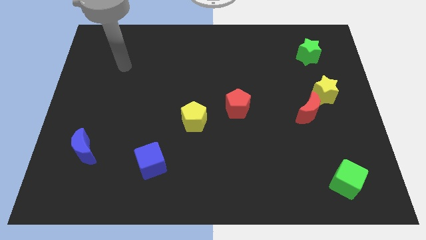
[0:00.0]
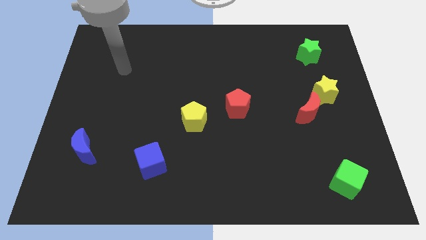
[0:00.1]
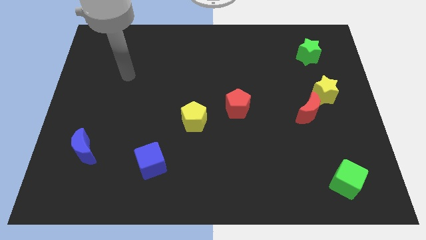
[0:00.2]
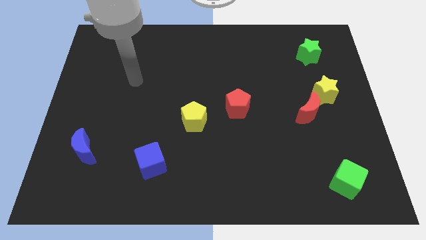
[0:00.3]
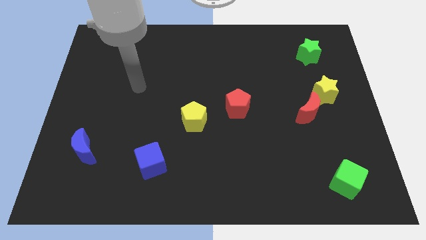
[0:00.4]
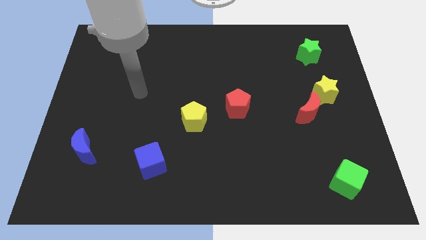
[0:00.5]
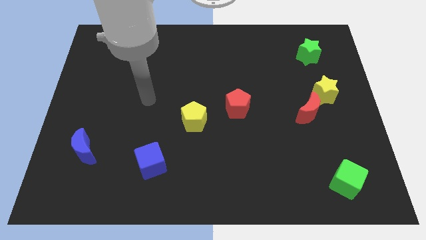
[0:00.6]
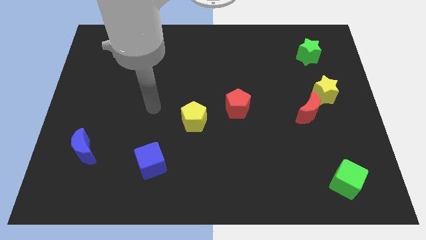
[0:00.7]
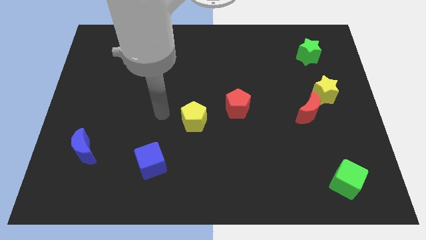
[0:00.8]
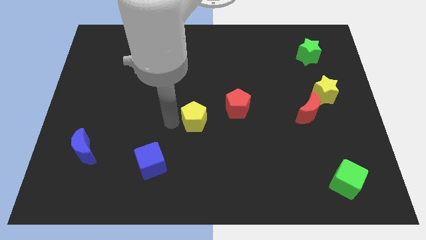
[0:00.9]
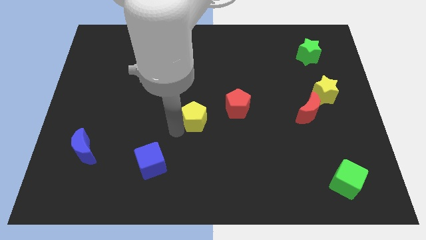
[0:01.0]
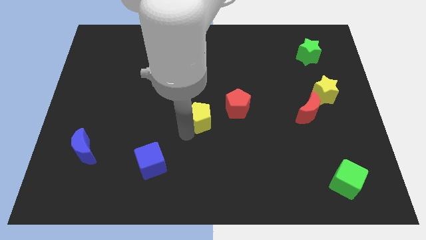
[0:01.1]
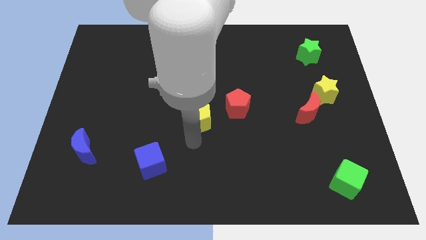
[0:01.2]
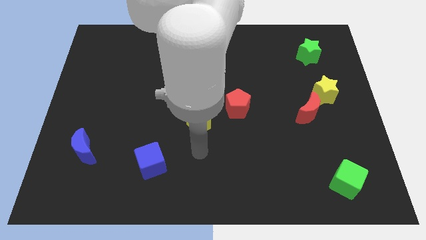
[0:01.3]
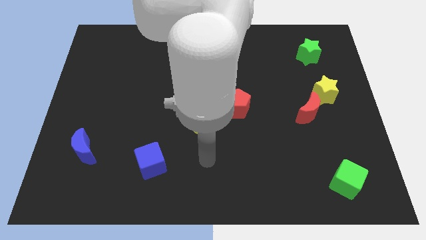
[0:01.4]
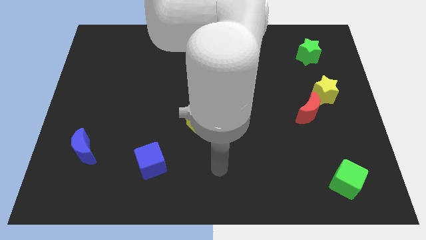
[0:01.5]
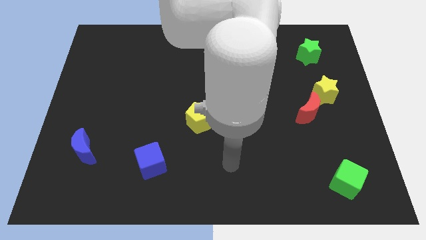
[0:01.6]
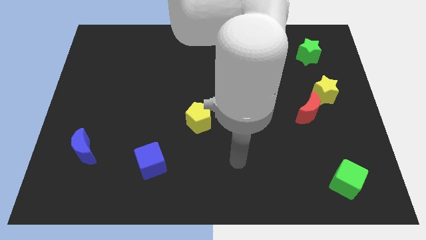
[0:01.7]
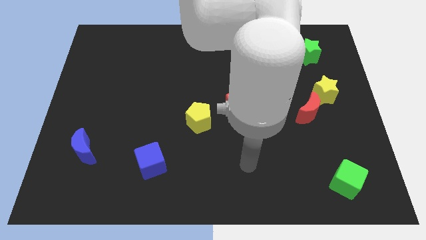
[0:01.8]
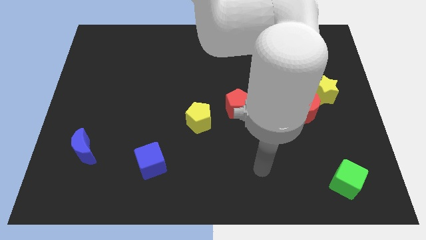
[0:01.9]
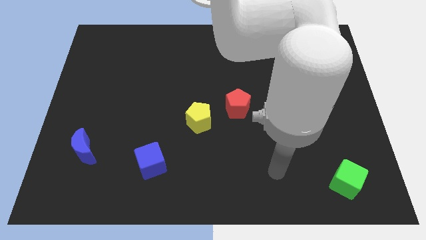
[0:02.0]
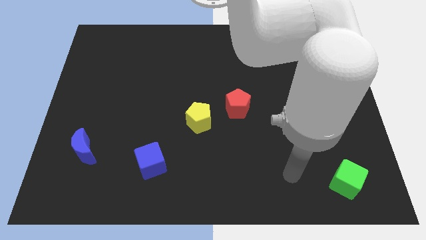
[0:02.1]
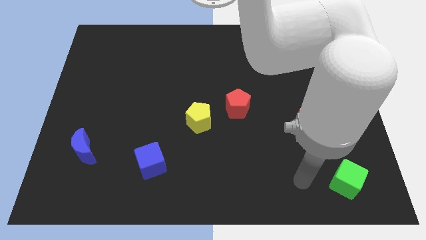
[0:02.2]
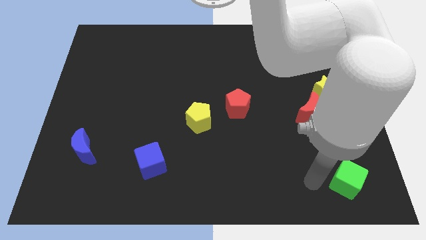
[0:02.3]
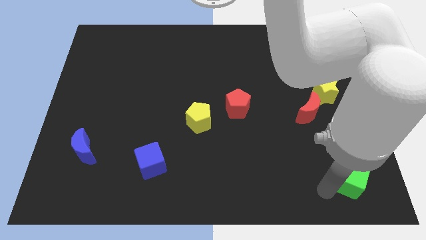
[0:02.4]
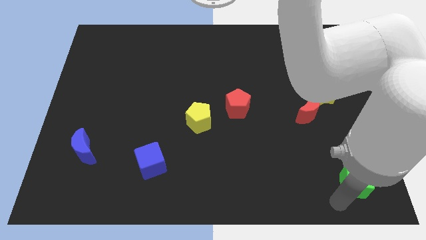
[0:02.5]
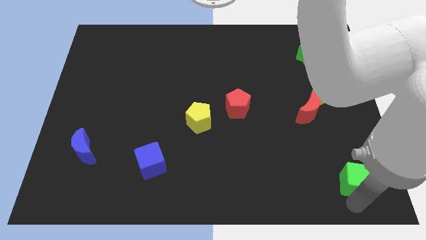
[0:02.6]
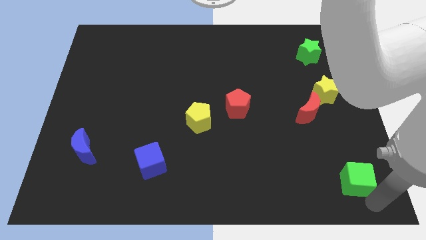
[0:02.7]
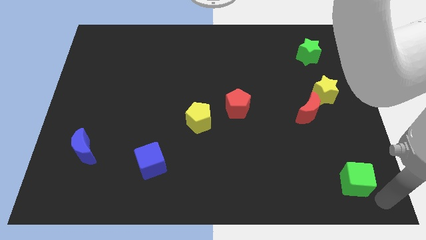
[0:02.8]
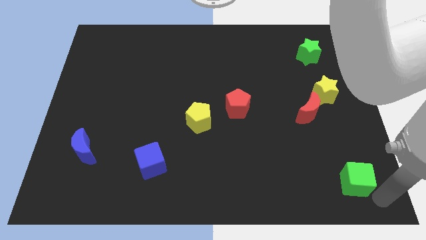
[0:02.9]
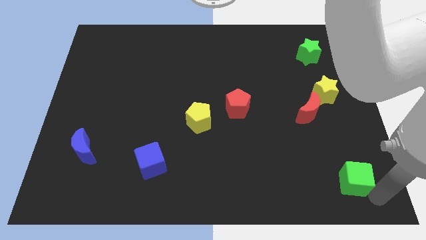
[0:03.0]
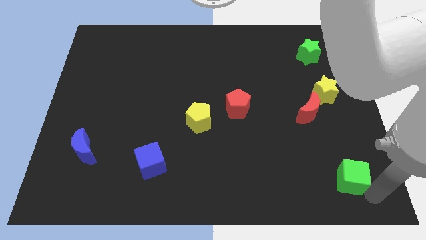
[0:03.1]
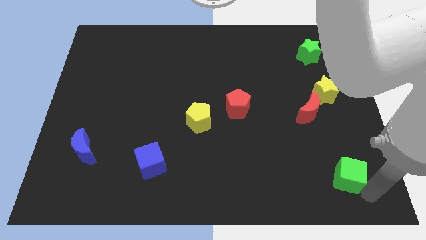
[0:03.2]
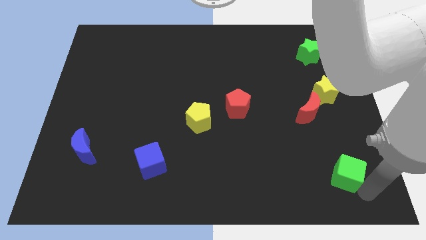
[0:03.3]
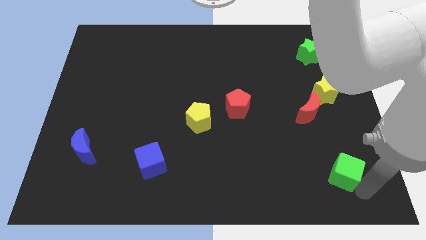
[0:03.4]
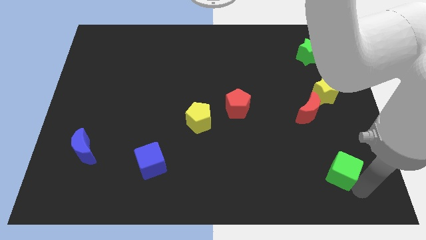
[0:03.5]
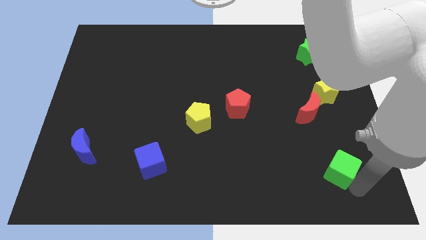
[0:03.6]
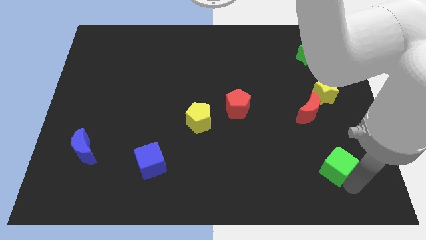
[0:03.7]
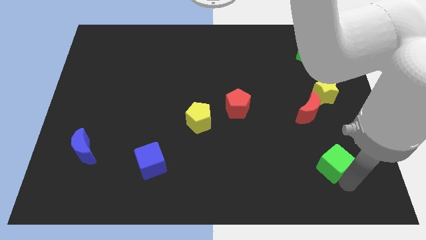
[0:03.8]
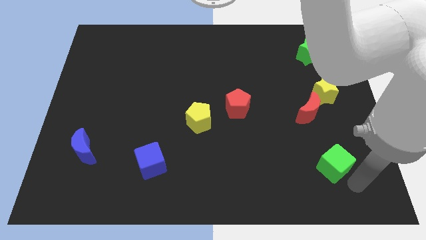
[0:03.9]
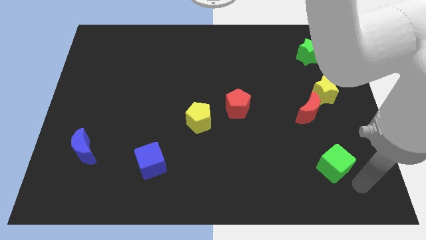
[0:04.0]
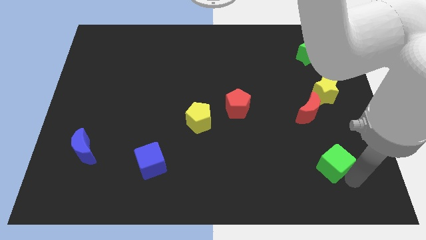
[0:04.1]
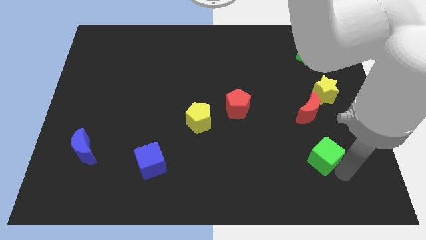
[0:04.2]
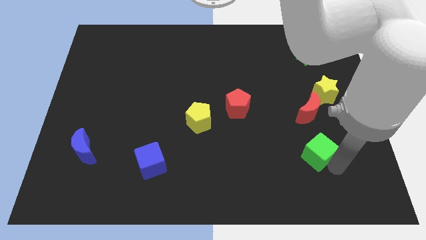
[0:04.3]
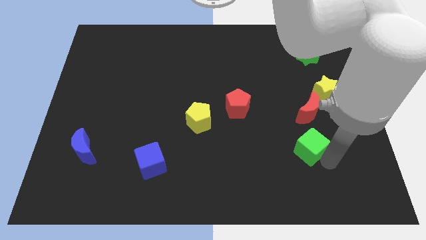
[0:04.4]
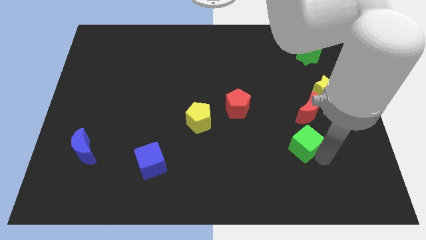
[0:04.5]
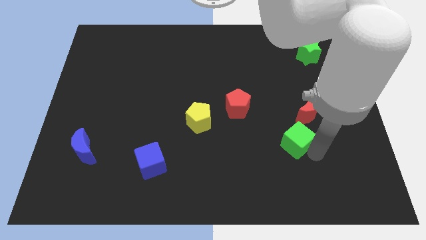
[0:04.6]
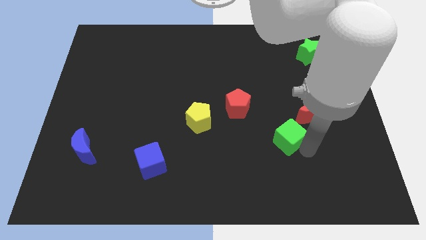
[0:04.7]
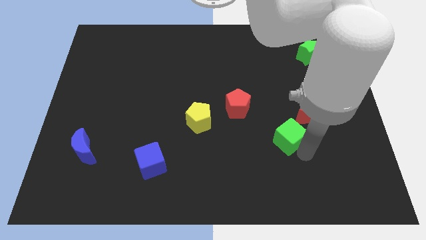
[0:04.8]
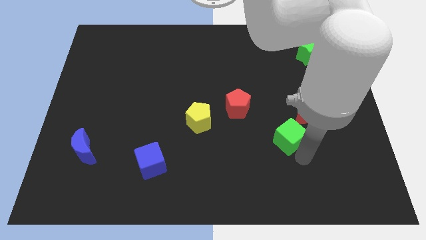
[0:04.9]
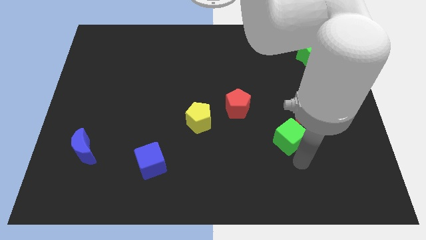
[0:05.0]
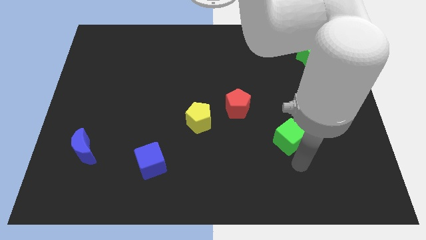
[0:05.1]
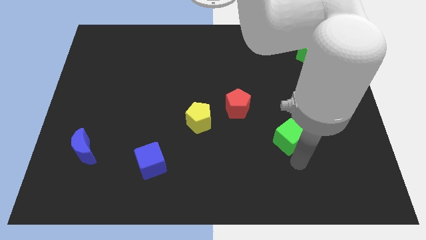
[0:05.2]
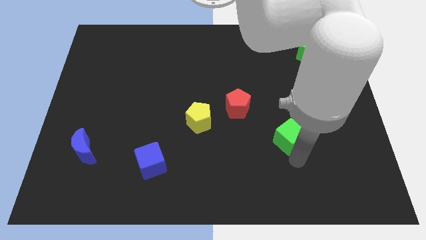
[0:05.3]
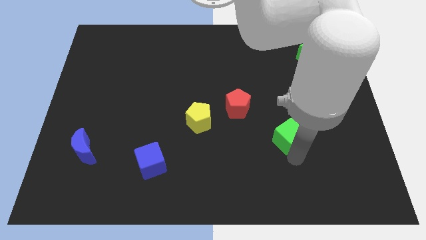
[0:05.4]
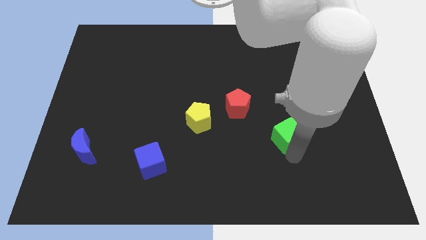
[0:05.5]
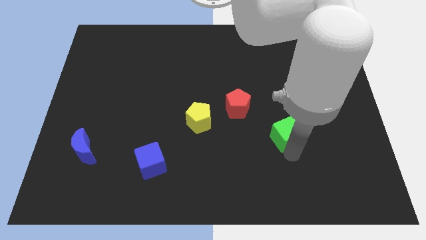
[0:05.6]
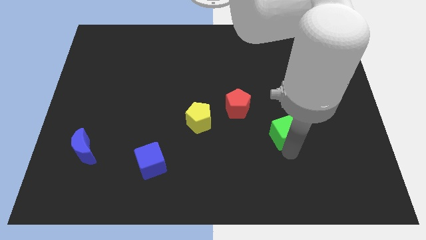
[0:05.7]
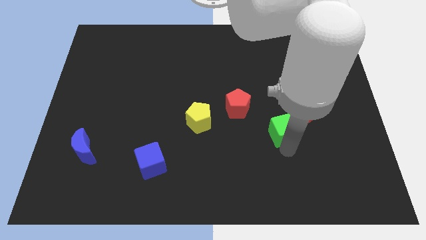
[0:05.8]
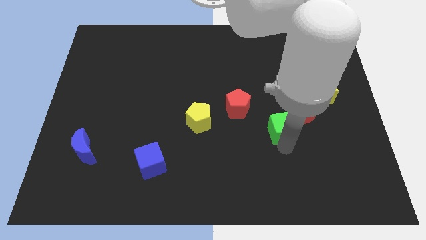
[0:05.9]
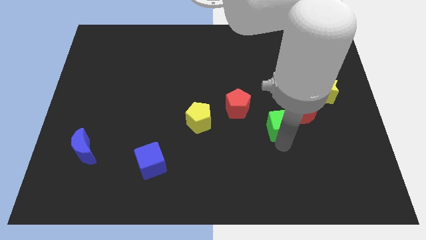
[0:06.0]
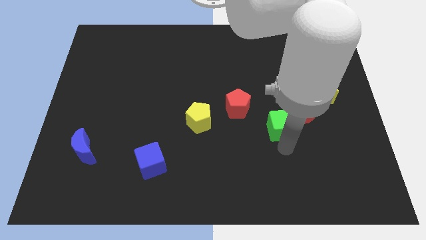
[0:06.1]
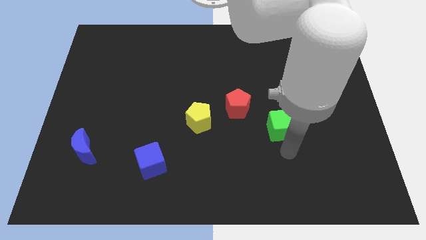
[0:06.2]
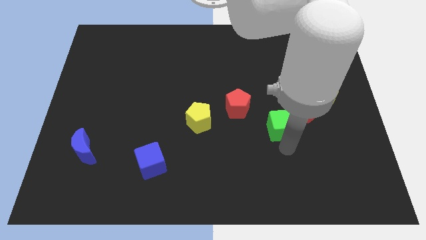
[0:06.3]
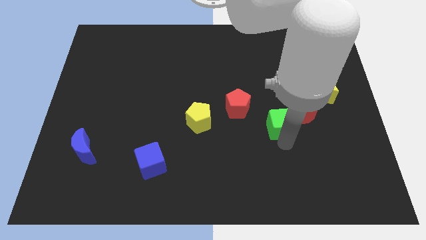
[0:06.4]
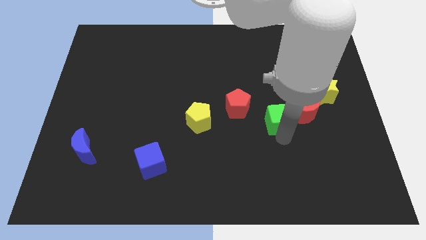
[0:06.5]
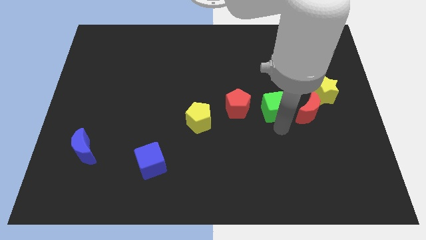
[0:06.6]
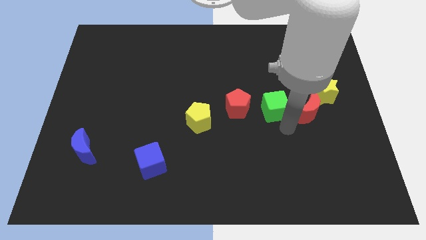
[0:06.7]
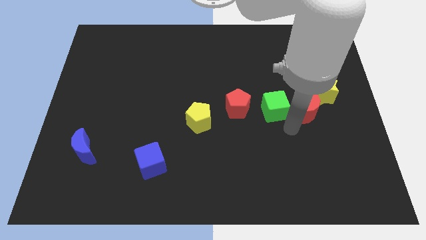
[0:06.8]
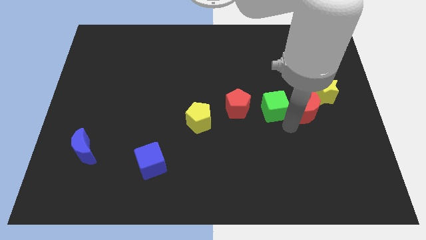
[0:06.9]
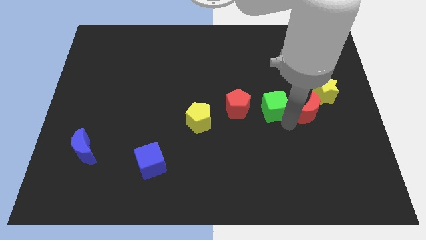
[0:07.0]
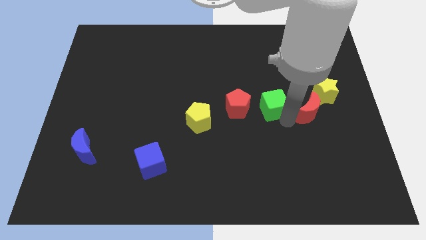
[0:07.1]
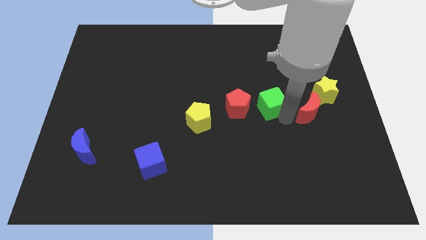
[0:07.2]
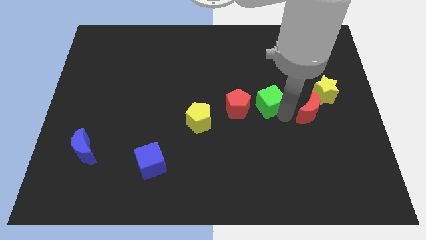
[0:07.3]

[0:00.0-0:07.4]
put the green cube to the top right of the red pentagon

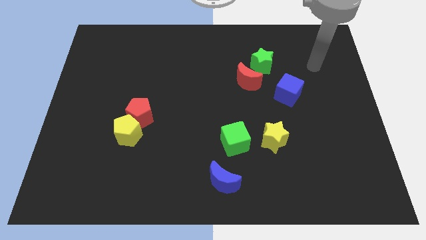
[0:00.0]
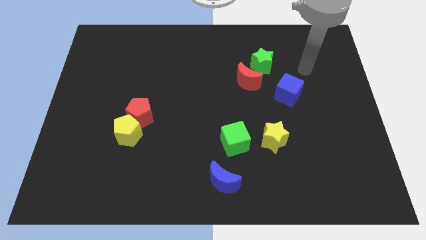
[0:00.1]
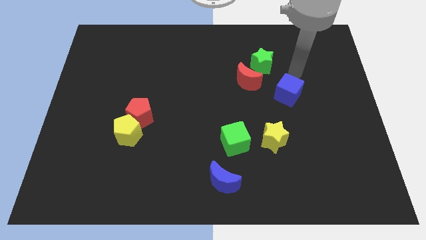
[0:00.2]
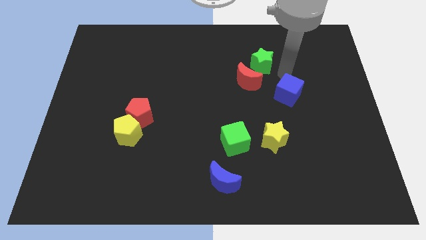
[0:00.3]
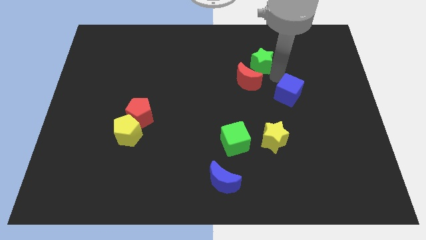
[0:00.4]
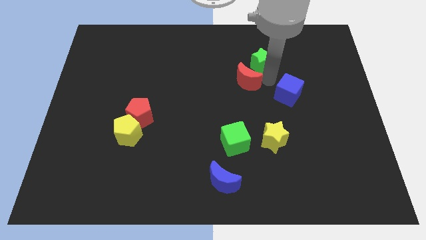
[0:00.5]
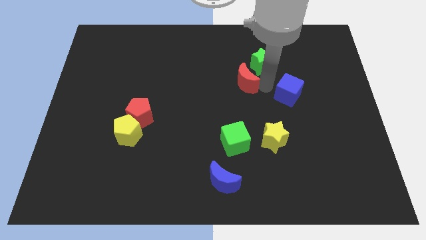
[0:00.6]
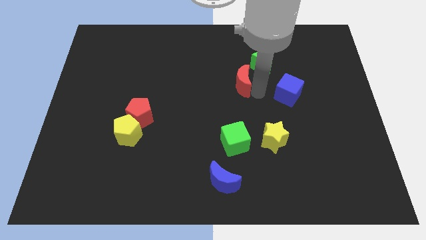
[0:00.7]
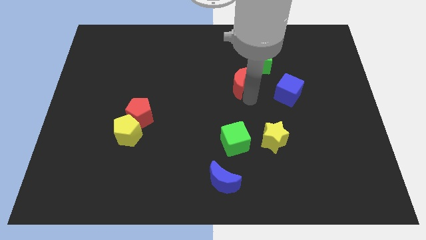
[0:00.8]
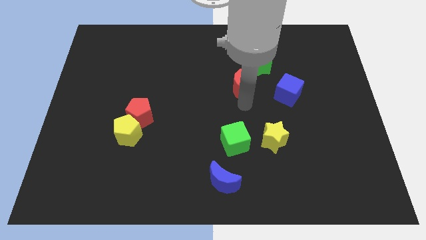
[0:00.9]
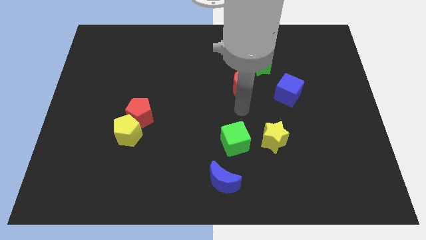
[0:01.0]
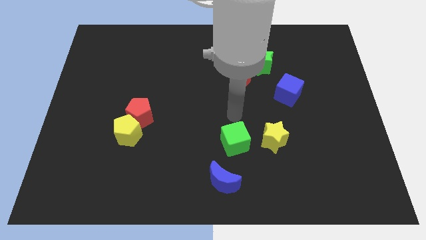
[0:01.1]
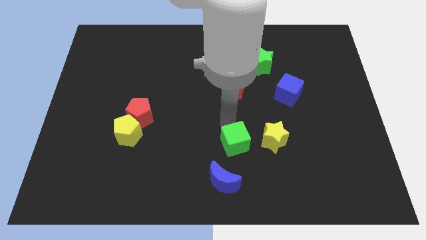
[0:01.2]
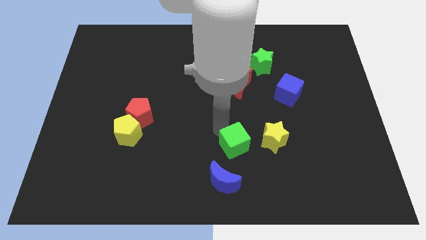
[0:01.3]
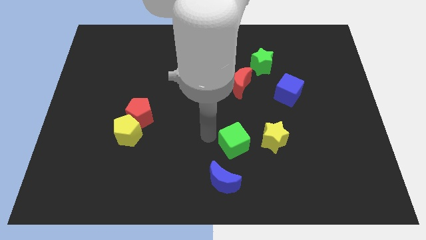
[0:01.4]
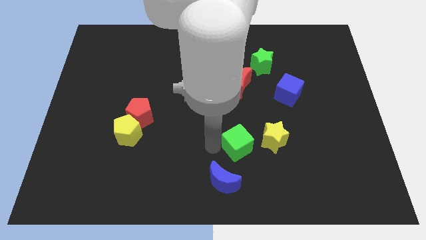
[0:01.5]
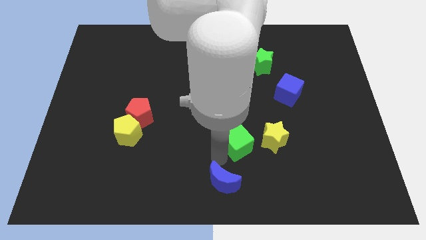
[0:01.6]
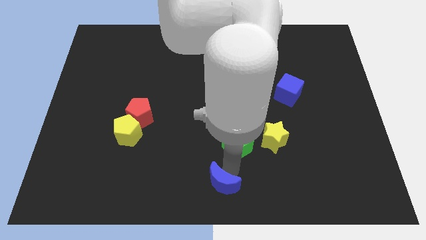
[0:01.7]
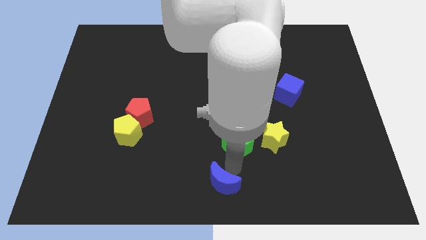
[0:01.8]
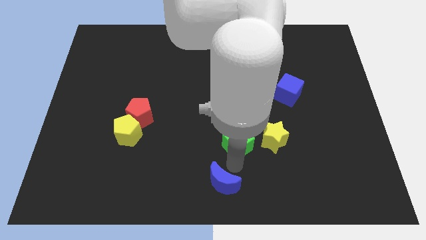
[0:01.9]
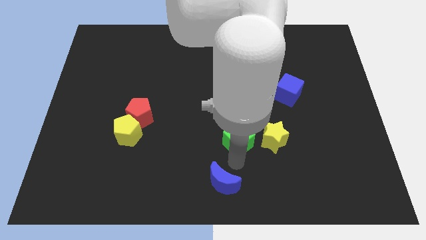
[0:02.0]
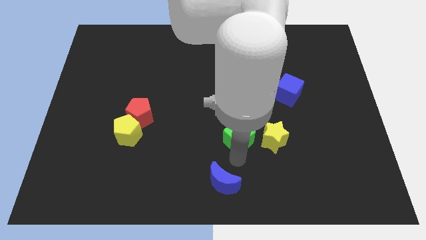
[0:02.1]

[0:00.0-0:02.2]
move the green cube to the bottom side of the red moon
